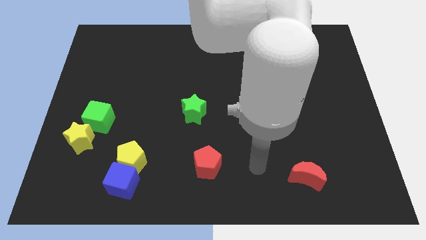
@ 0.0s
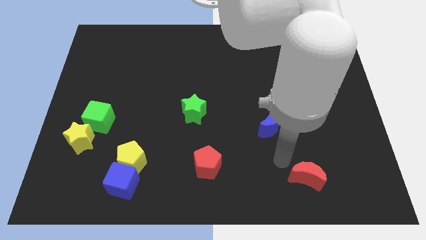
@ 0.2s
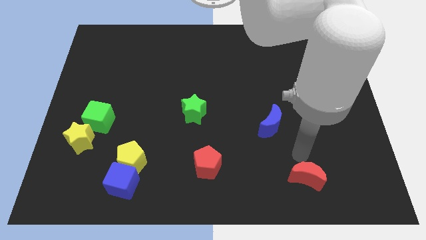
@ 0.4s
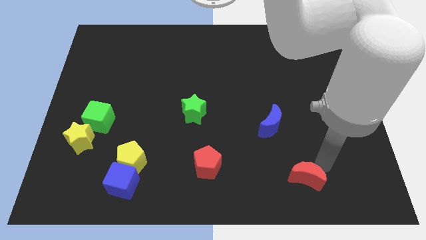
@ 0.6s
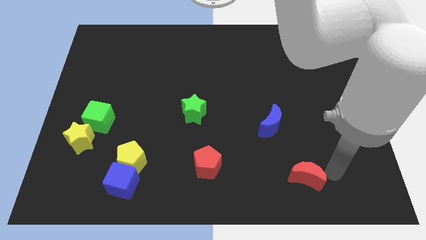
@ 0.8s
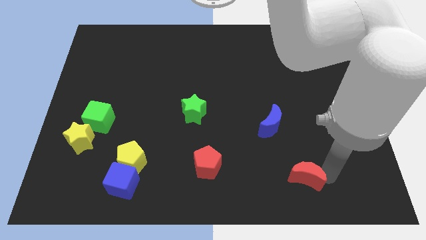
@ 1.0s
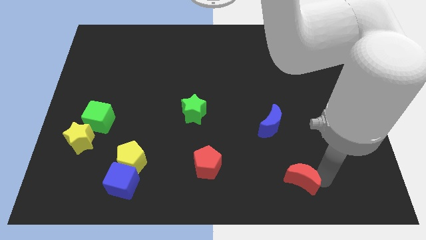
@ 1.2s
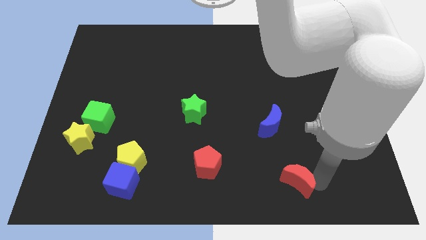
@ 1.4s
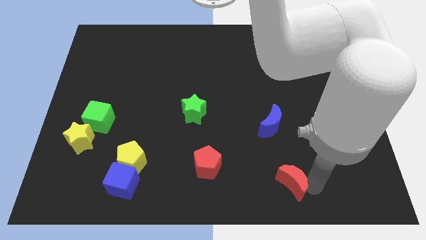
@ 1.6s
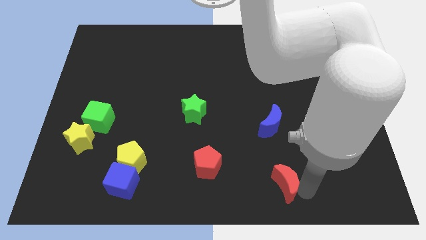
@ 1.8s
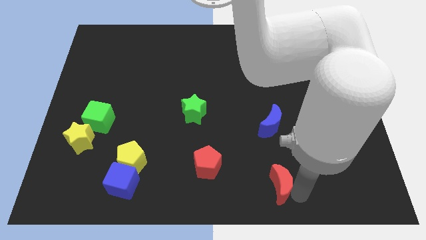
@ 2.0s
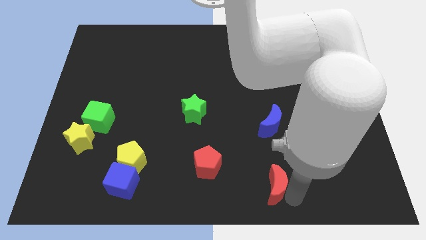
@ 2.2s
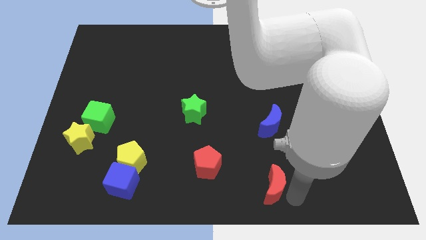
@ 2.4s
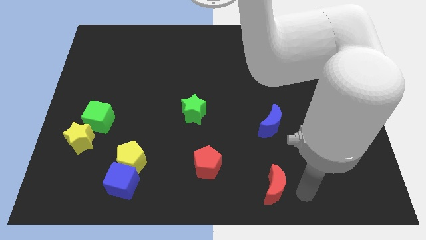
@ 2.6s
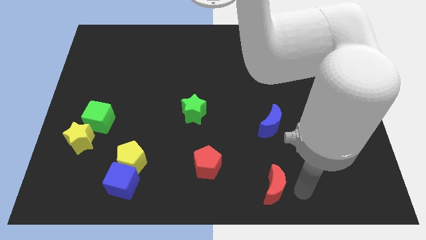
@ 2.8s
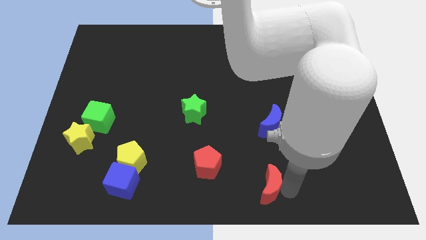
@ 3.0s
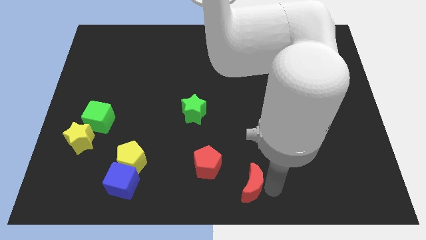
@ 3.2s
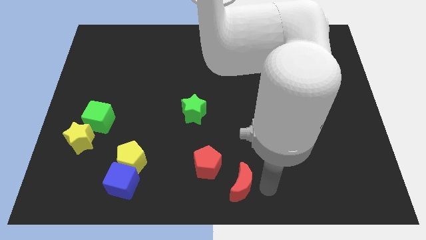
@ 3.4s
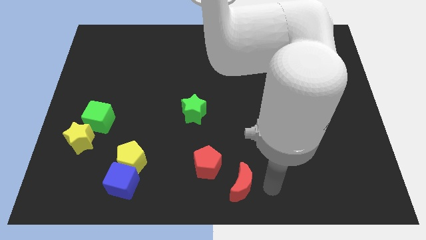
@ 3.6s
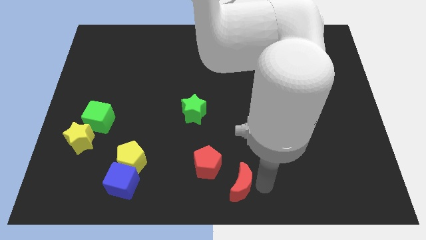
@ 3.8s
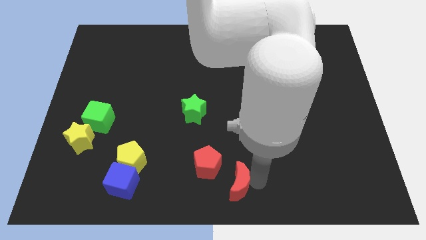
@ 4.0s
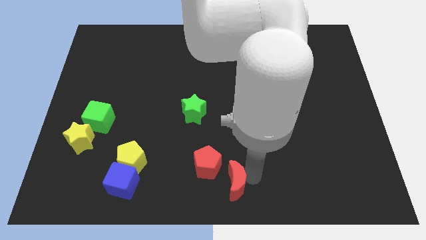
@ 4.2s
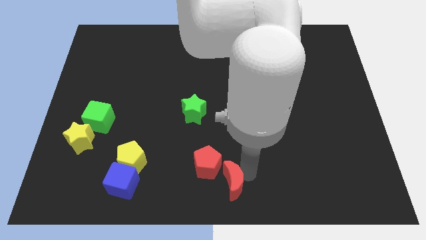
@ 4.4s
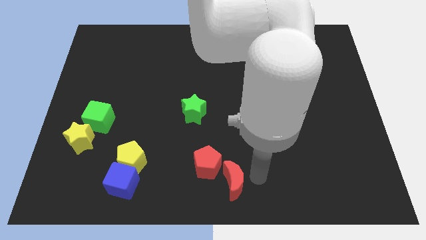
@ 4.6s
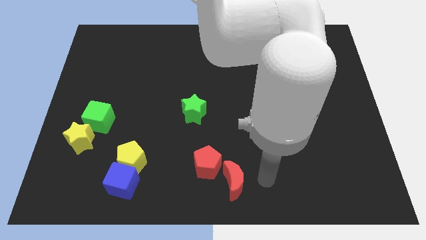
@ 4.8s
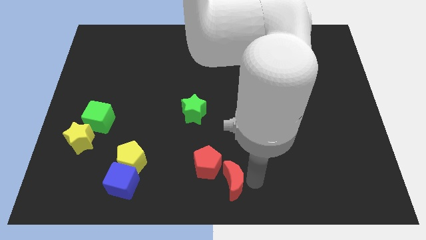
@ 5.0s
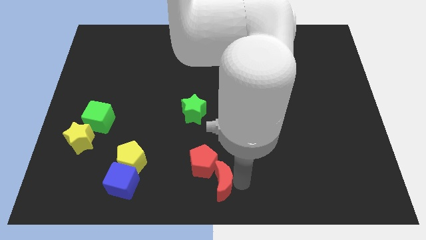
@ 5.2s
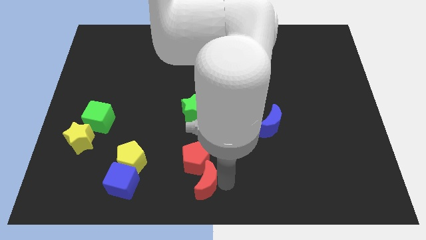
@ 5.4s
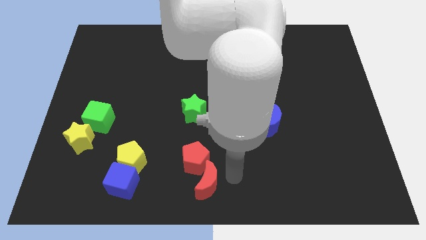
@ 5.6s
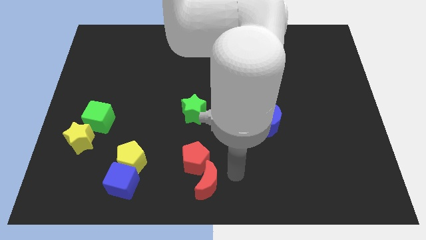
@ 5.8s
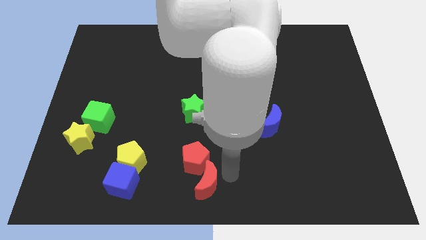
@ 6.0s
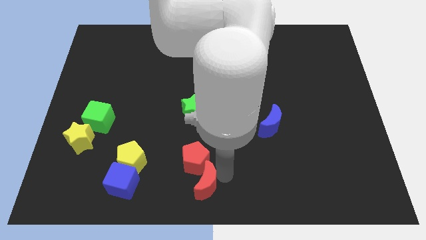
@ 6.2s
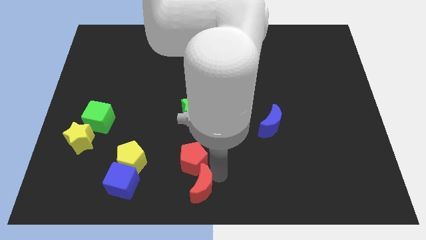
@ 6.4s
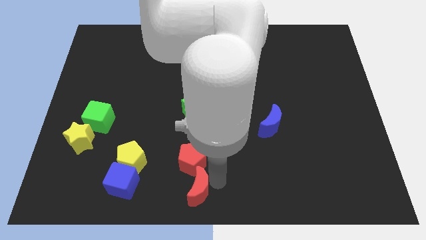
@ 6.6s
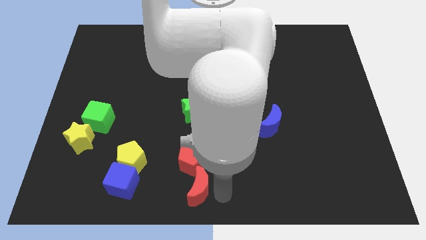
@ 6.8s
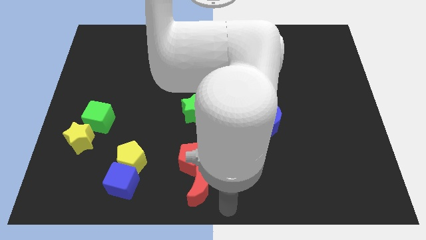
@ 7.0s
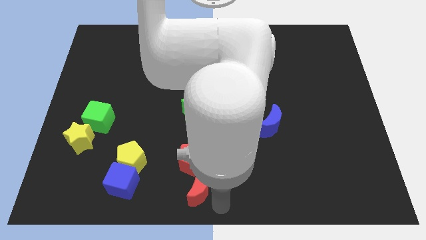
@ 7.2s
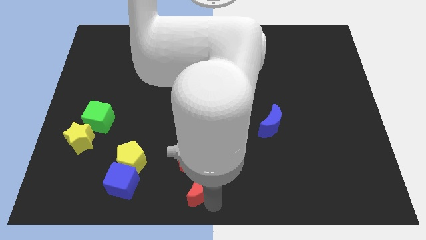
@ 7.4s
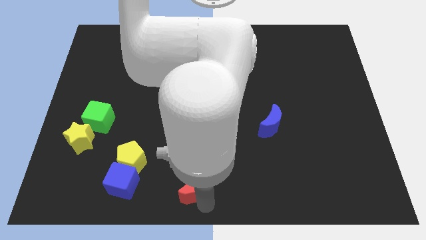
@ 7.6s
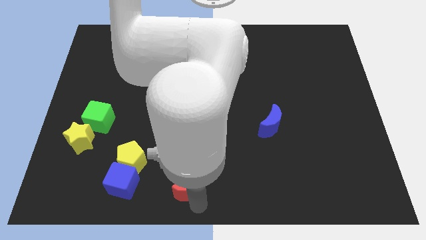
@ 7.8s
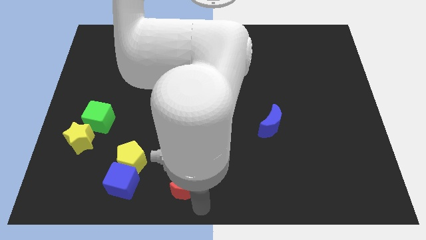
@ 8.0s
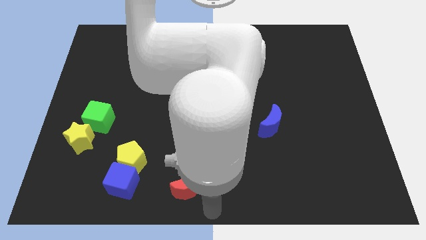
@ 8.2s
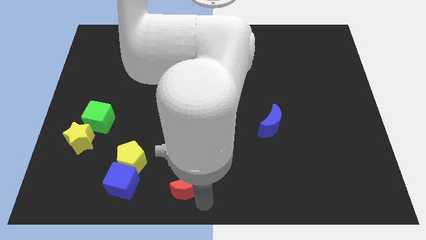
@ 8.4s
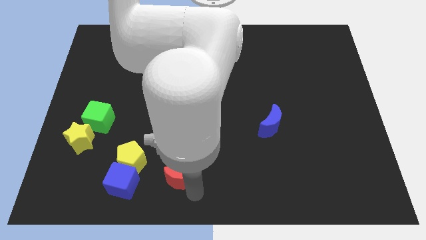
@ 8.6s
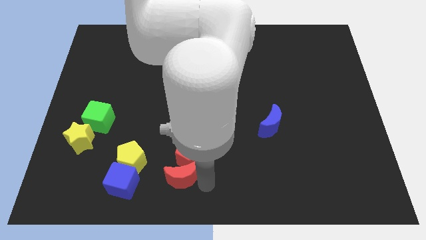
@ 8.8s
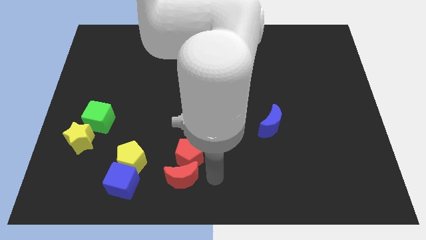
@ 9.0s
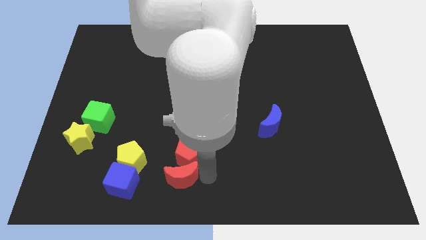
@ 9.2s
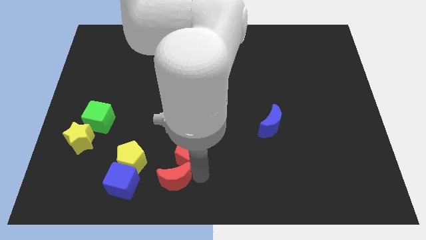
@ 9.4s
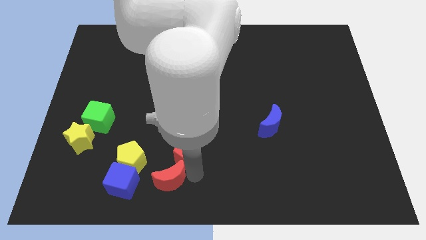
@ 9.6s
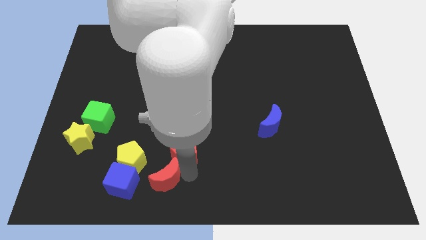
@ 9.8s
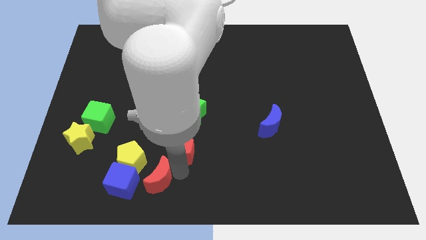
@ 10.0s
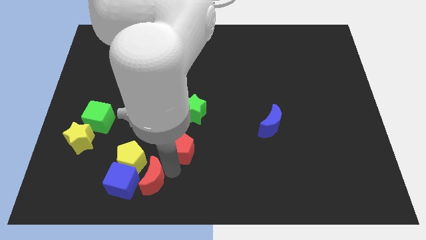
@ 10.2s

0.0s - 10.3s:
push the red moon close to the blue cube

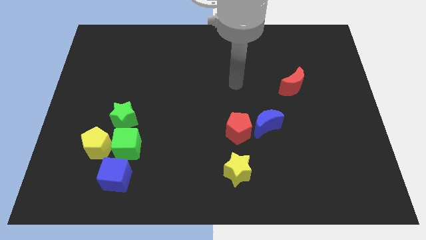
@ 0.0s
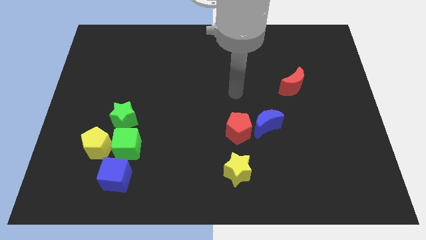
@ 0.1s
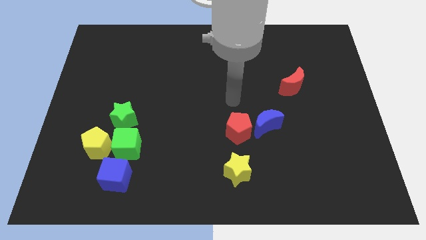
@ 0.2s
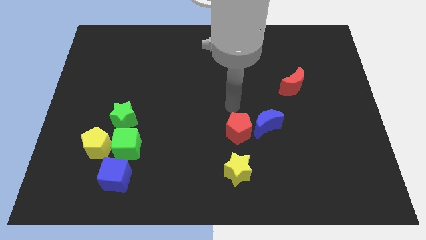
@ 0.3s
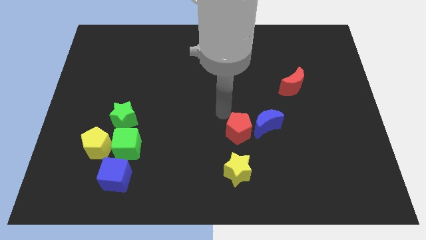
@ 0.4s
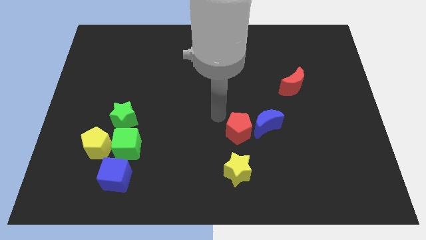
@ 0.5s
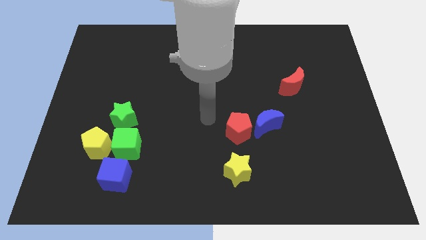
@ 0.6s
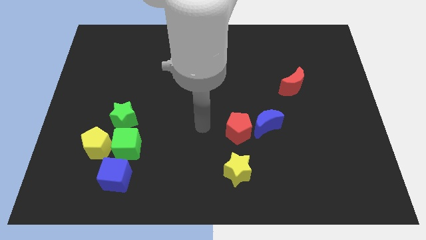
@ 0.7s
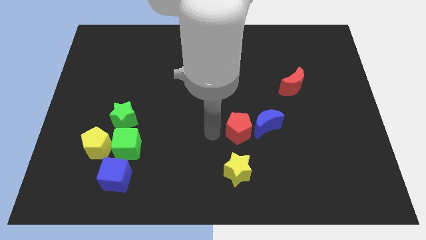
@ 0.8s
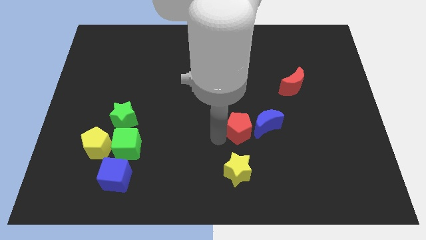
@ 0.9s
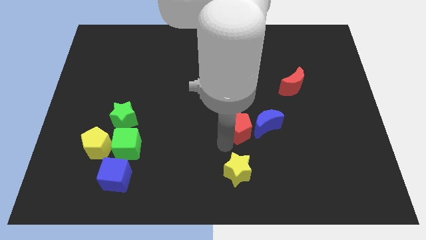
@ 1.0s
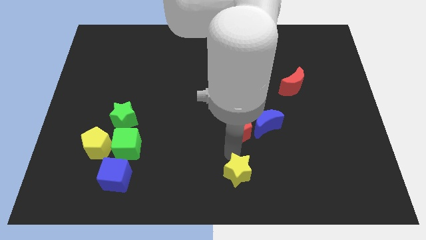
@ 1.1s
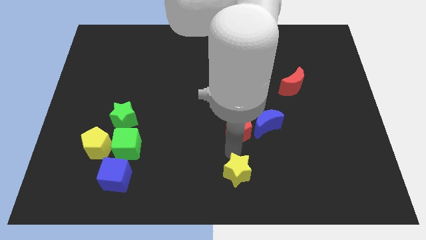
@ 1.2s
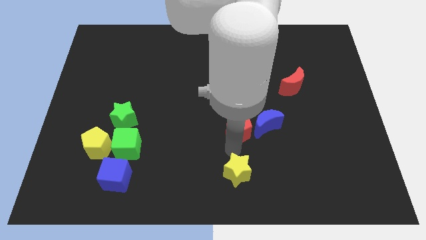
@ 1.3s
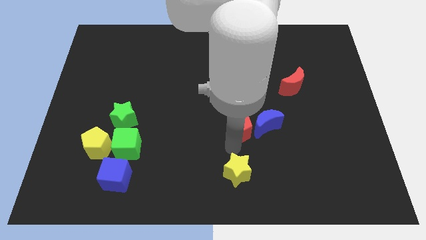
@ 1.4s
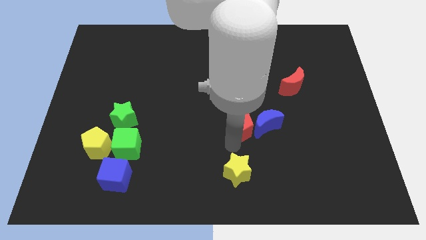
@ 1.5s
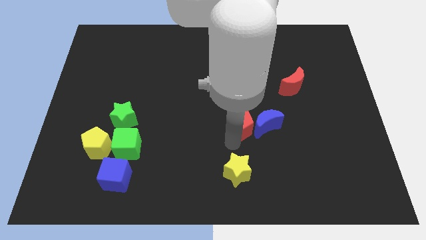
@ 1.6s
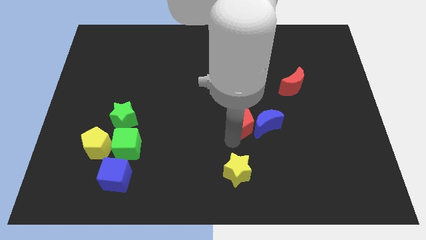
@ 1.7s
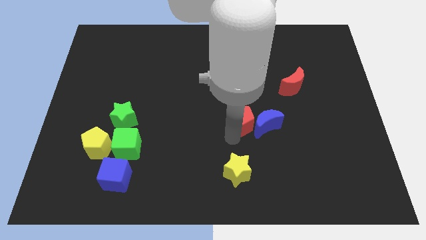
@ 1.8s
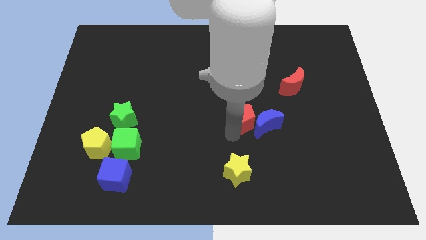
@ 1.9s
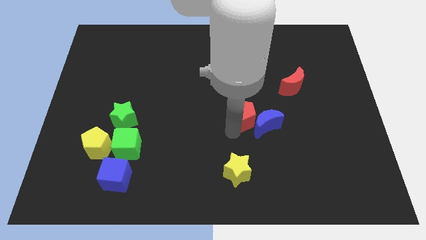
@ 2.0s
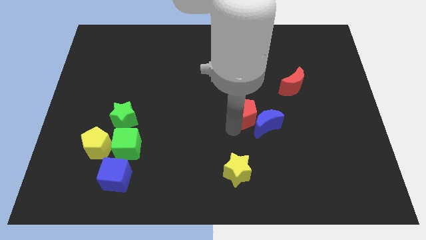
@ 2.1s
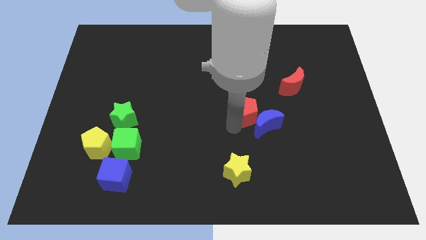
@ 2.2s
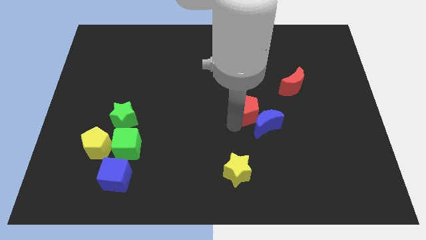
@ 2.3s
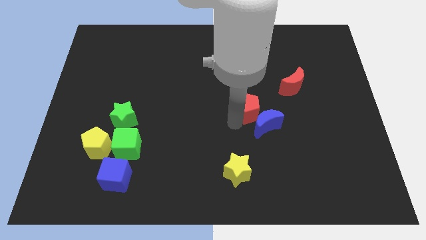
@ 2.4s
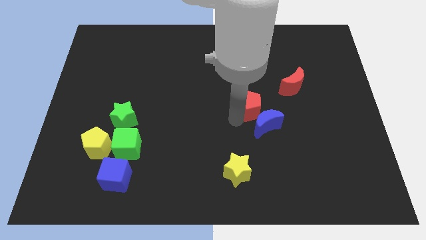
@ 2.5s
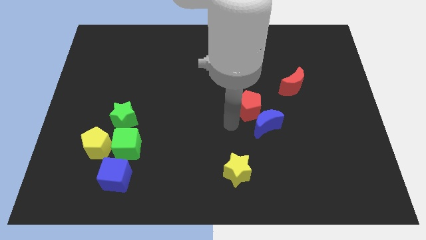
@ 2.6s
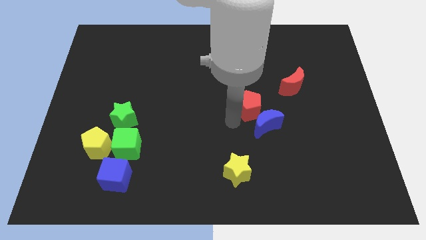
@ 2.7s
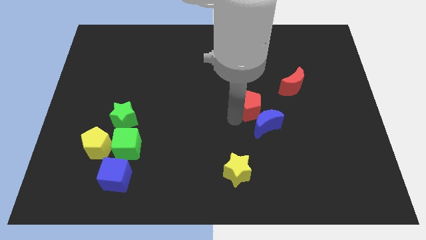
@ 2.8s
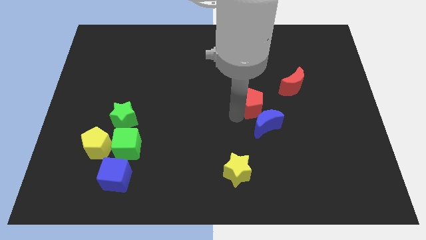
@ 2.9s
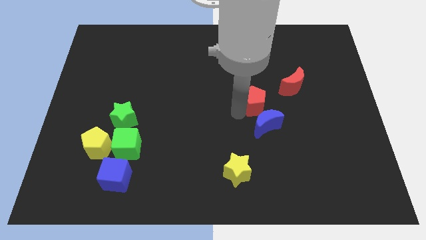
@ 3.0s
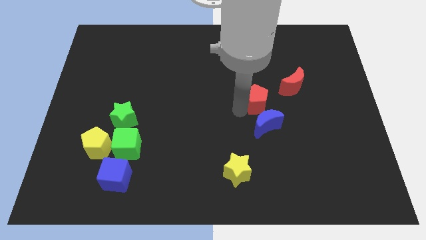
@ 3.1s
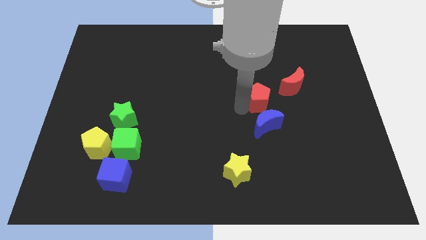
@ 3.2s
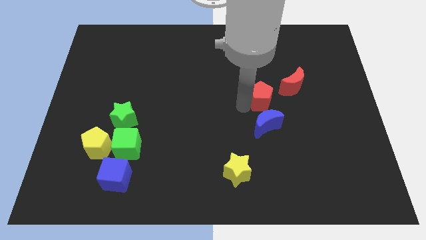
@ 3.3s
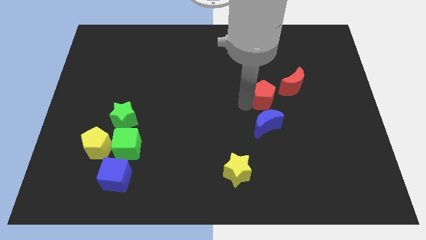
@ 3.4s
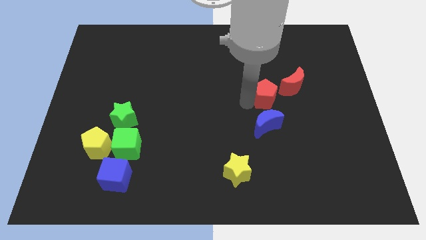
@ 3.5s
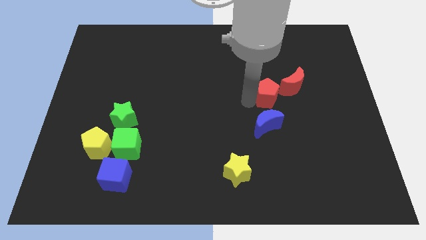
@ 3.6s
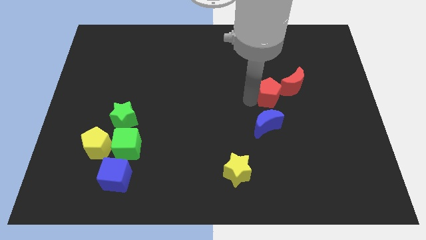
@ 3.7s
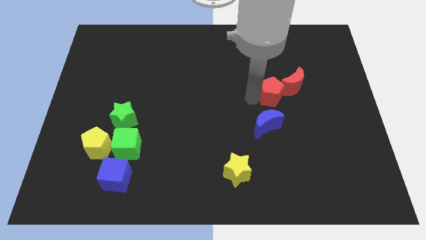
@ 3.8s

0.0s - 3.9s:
move the red pentagon towards the red moon
